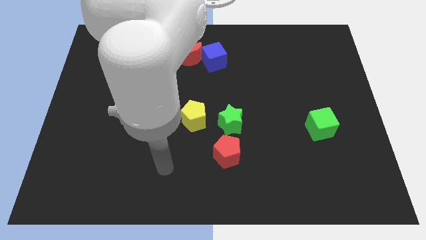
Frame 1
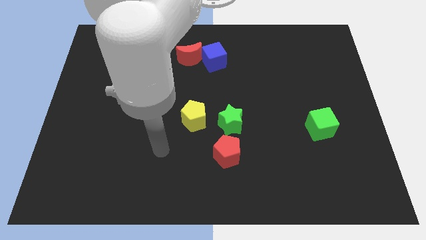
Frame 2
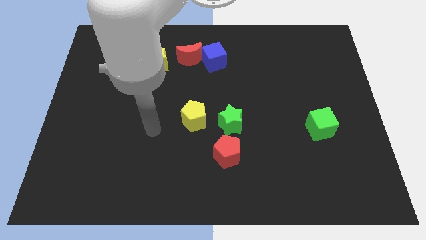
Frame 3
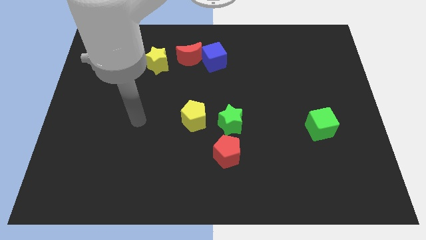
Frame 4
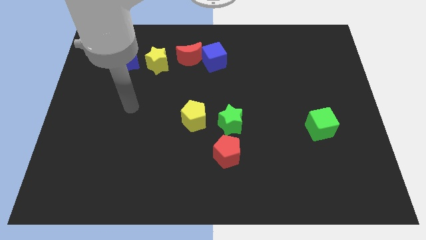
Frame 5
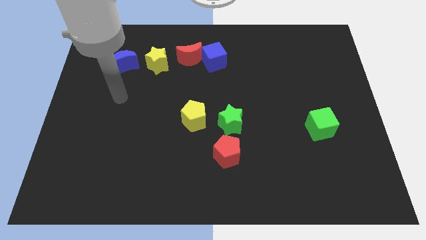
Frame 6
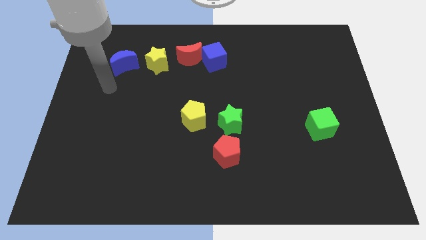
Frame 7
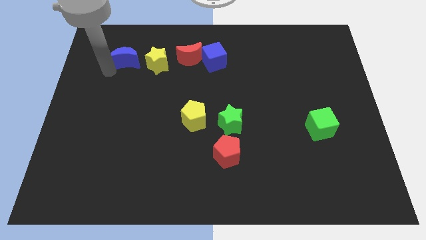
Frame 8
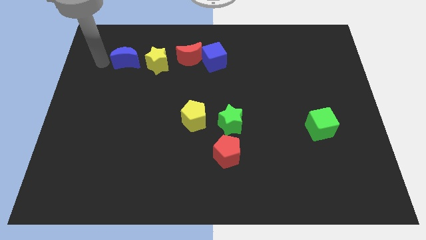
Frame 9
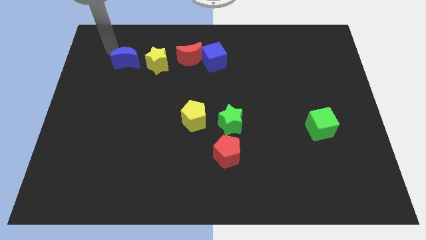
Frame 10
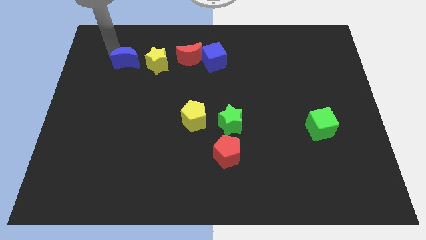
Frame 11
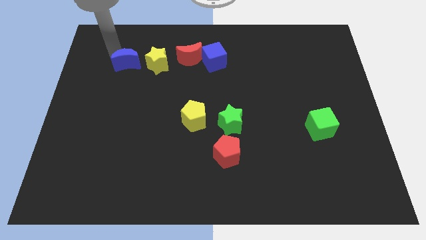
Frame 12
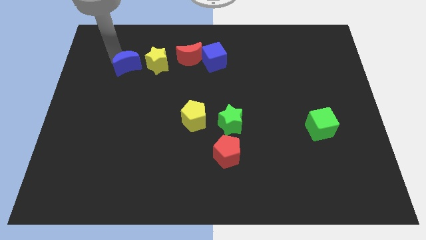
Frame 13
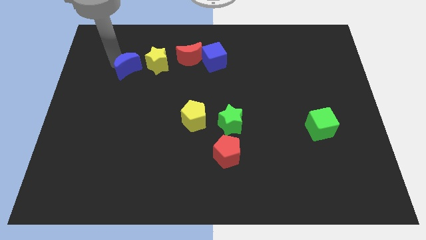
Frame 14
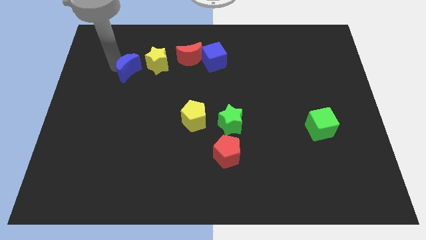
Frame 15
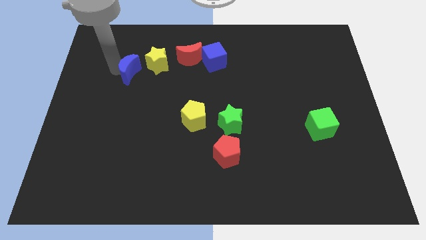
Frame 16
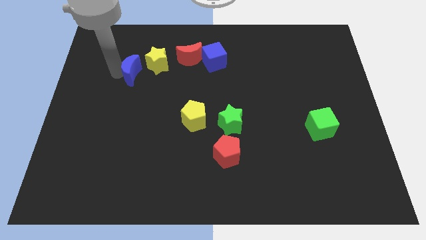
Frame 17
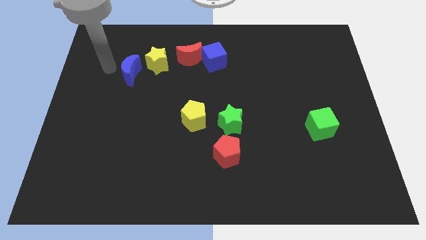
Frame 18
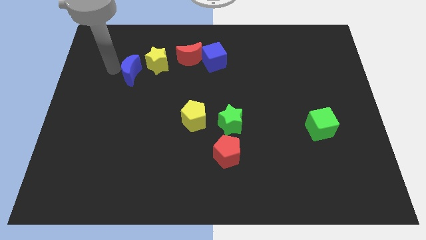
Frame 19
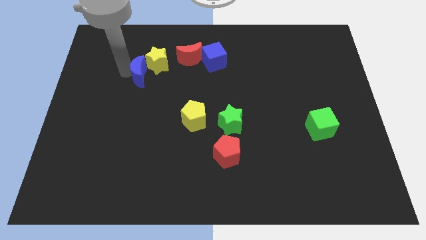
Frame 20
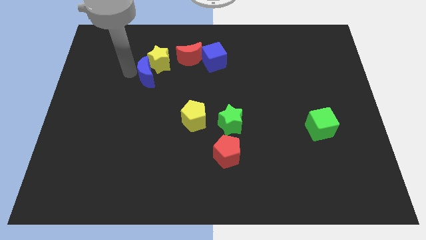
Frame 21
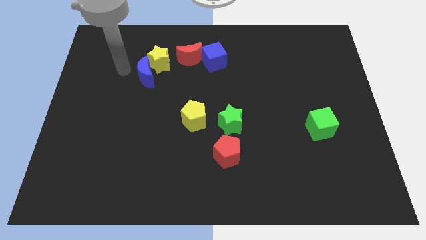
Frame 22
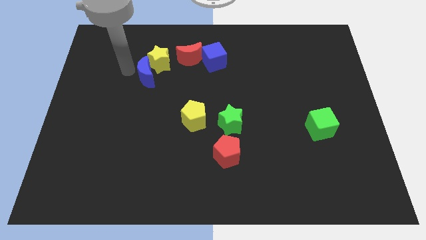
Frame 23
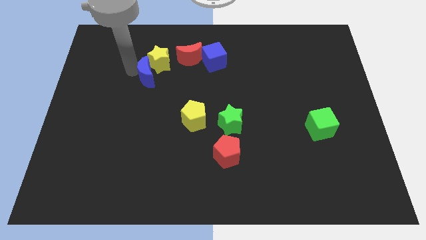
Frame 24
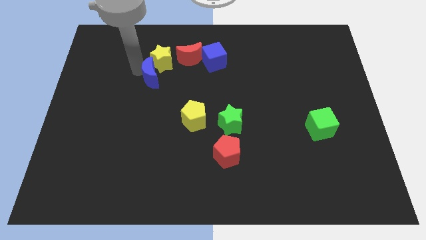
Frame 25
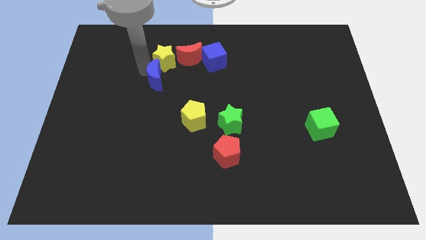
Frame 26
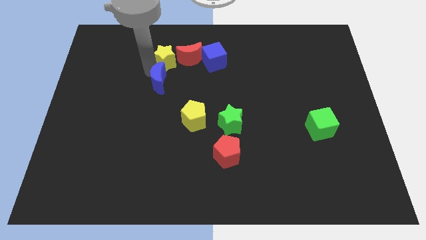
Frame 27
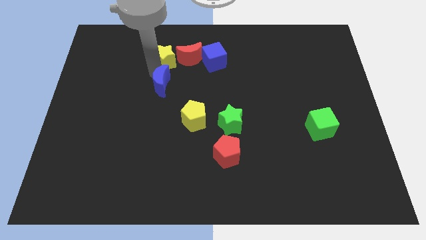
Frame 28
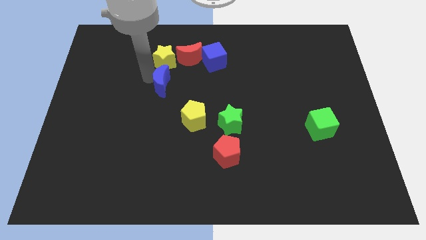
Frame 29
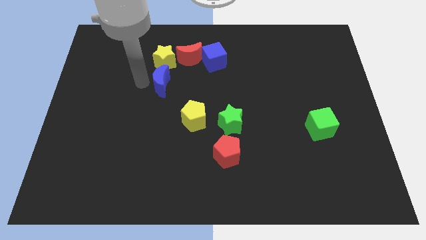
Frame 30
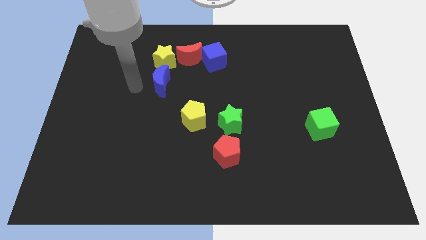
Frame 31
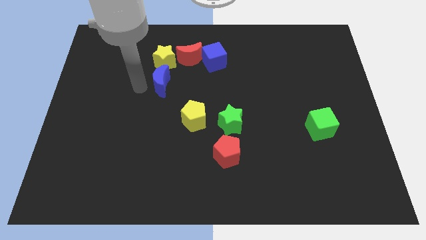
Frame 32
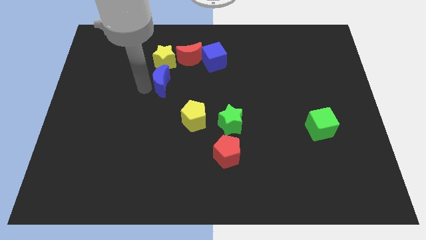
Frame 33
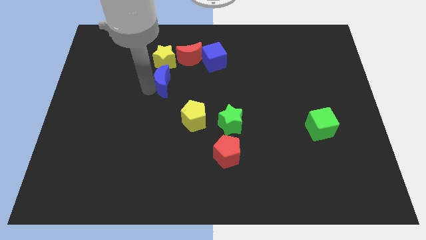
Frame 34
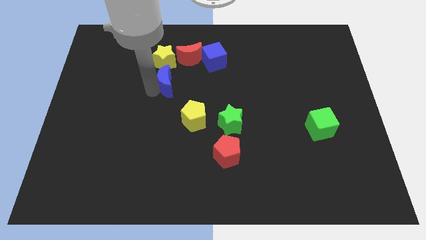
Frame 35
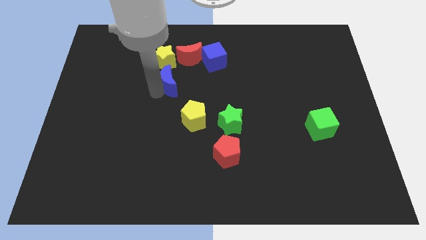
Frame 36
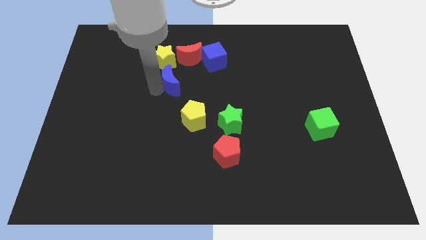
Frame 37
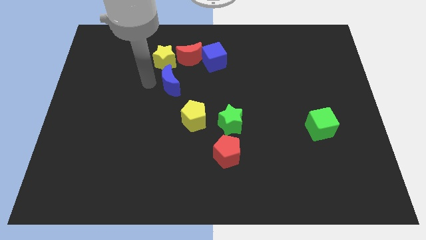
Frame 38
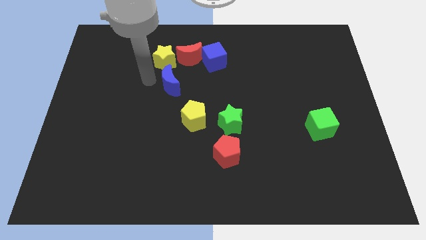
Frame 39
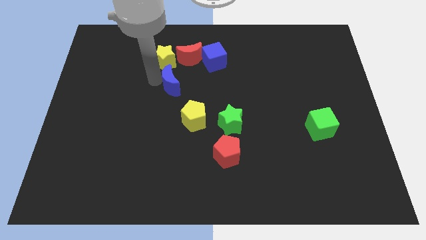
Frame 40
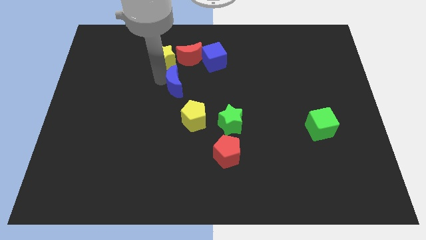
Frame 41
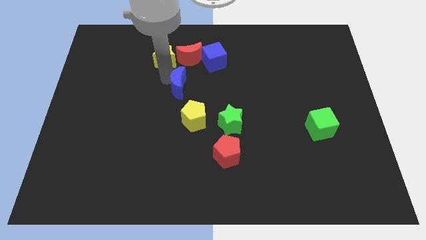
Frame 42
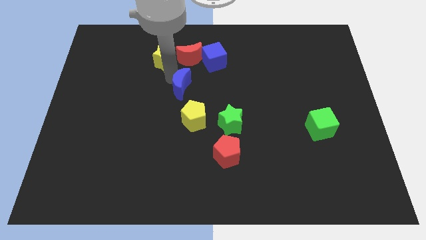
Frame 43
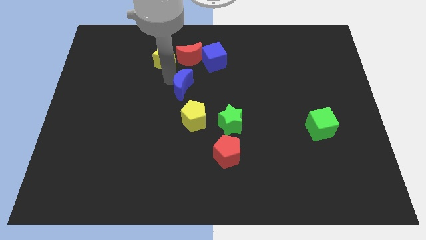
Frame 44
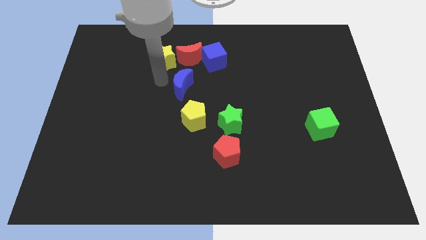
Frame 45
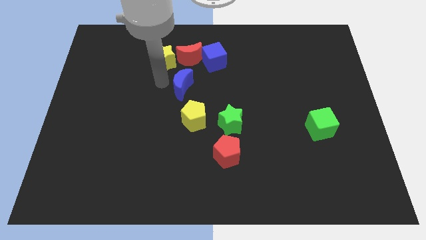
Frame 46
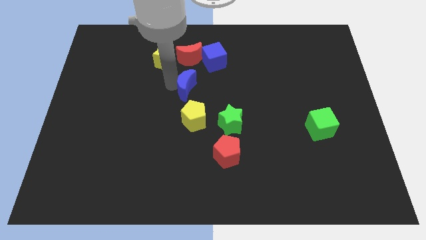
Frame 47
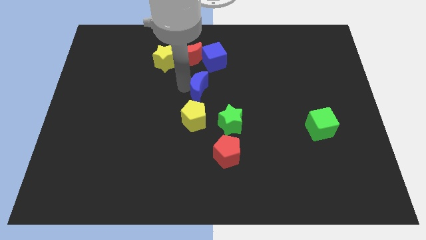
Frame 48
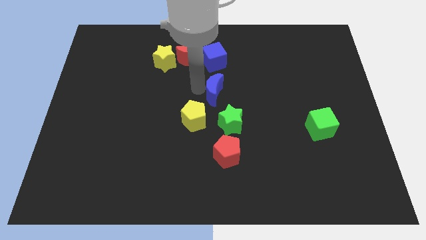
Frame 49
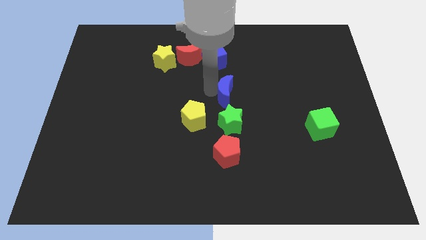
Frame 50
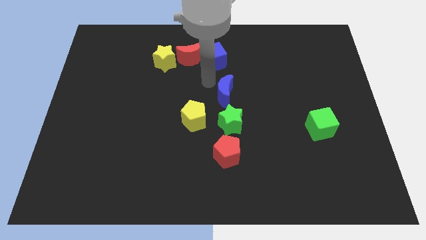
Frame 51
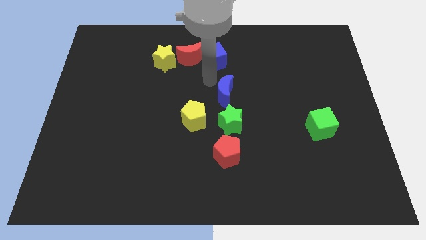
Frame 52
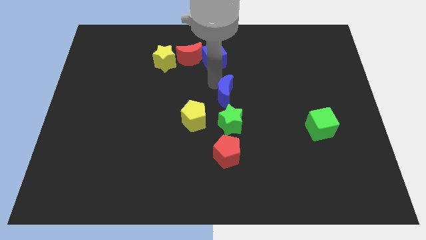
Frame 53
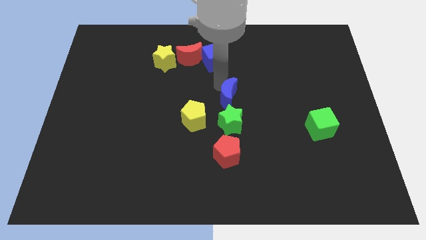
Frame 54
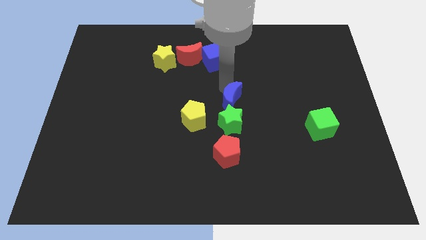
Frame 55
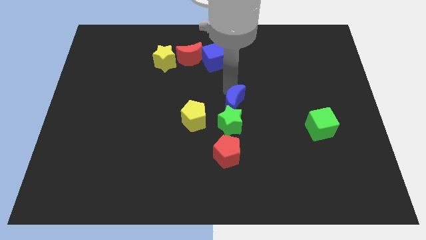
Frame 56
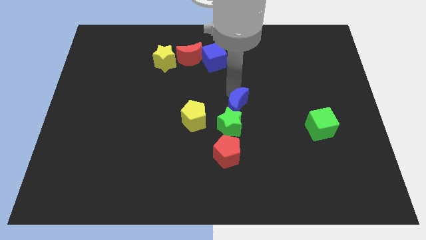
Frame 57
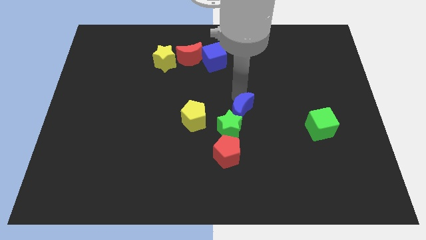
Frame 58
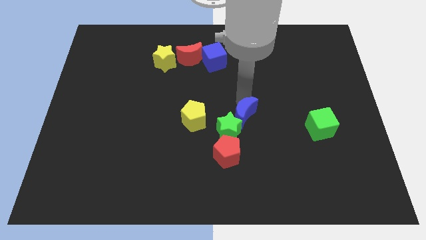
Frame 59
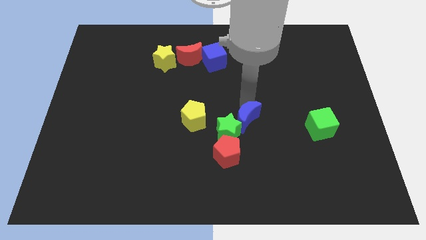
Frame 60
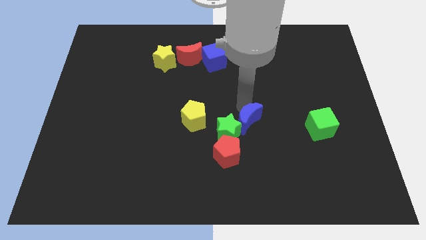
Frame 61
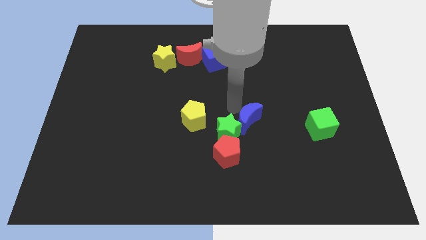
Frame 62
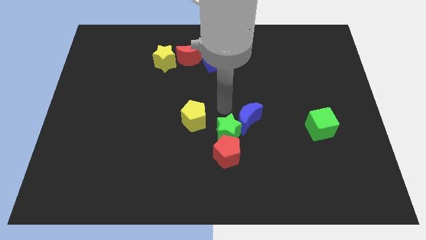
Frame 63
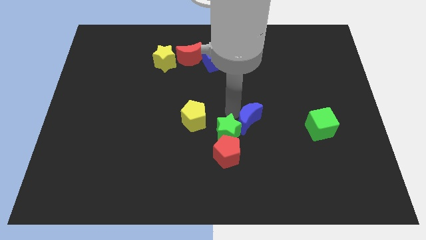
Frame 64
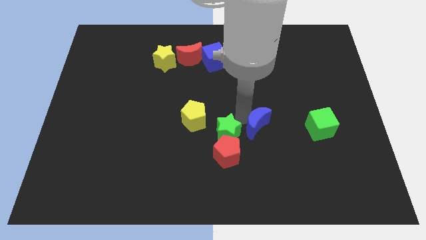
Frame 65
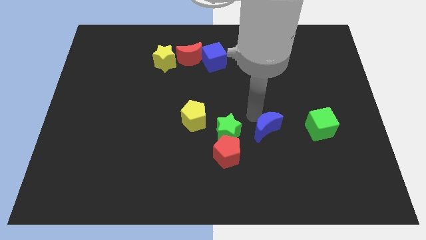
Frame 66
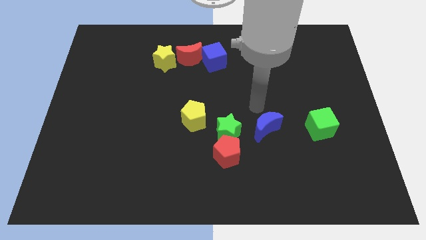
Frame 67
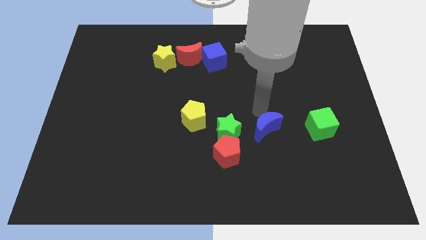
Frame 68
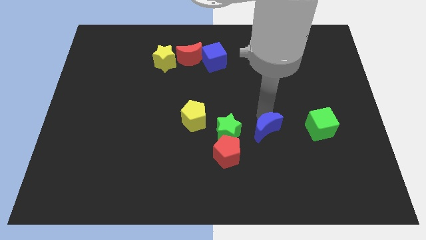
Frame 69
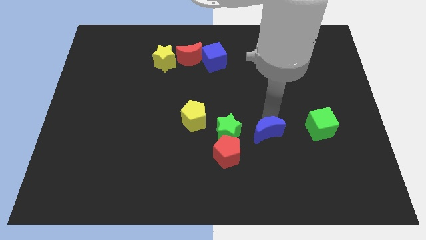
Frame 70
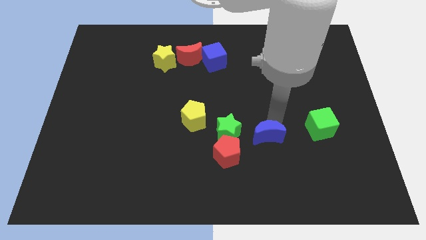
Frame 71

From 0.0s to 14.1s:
slide the blue moon to the right of the red pentagon

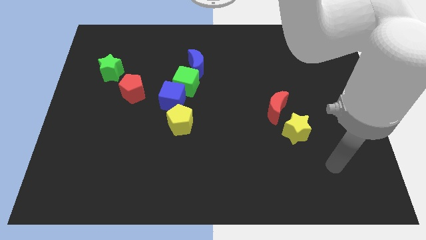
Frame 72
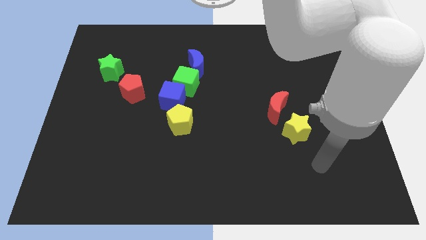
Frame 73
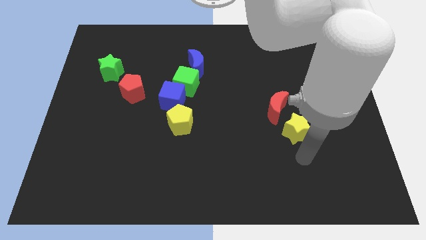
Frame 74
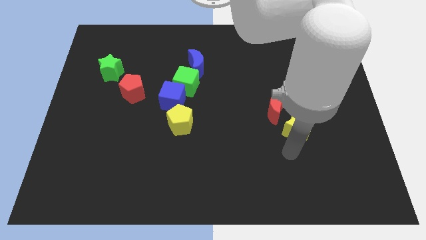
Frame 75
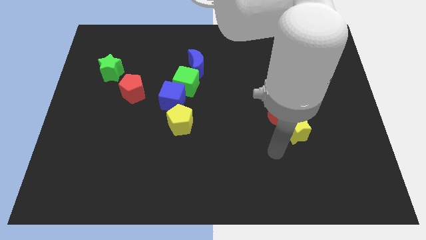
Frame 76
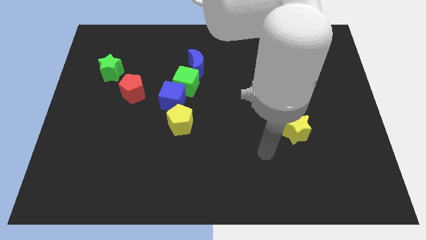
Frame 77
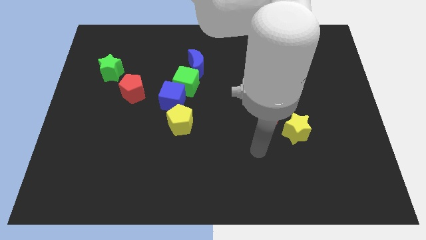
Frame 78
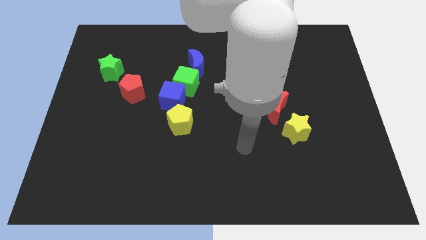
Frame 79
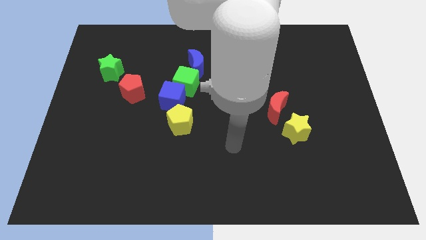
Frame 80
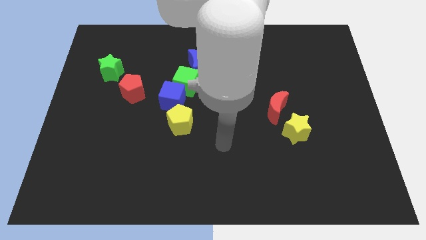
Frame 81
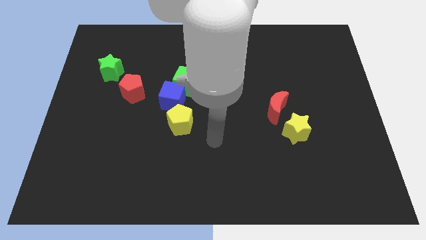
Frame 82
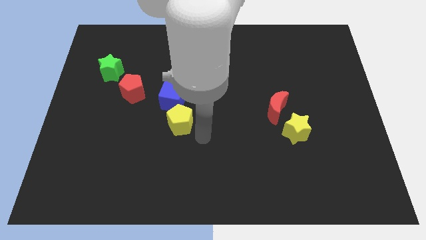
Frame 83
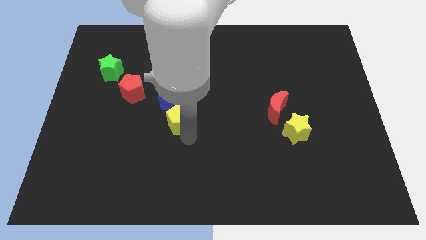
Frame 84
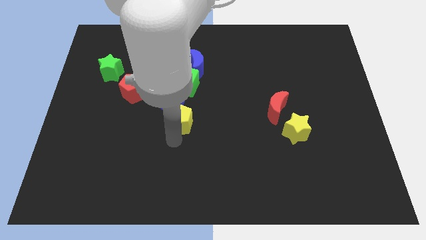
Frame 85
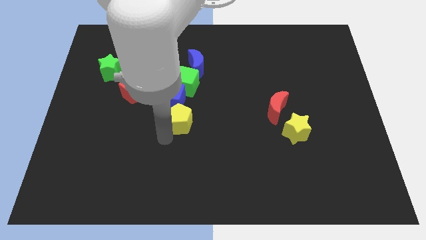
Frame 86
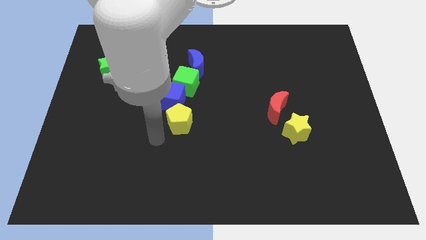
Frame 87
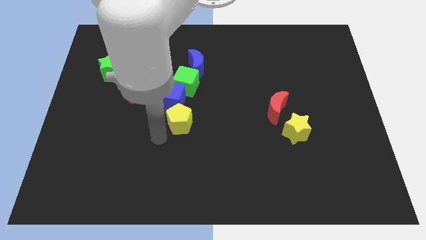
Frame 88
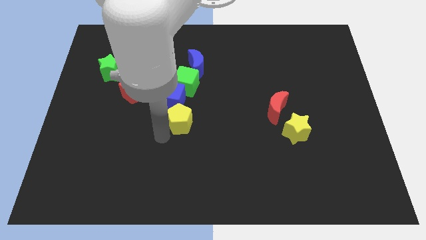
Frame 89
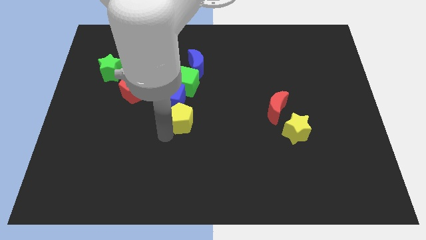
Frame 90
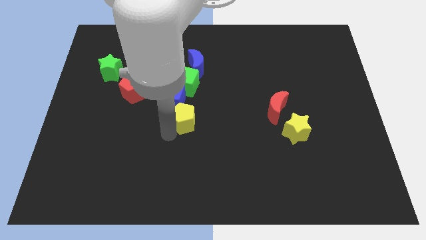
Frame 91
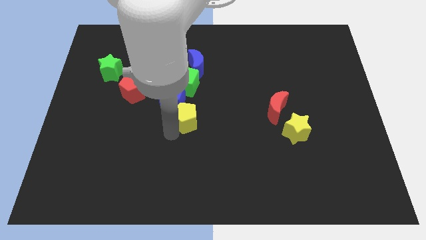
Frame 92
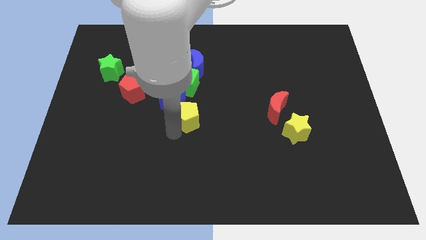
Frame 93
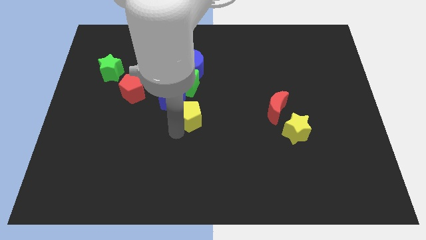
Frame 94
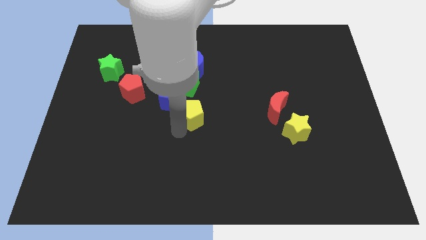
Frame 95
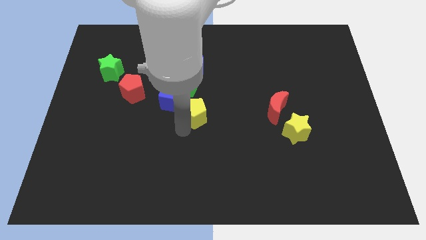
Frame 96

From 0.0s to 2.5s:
push the yellow pentagon to the right side of the blue cube
